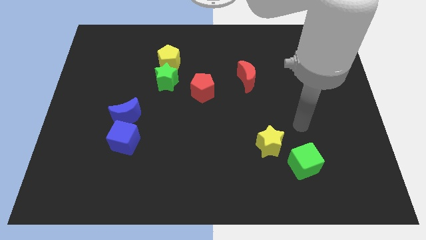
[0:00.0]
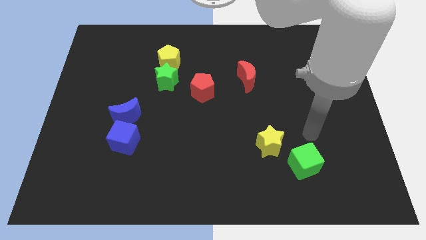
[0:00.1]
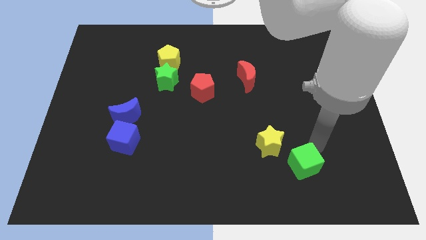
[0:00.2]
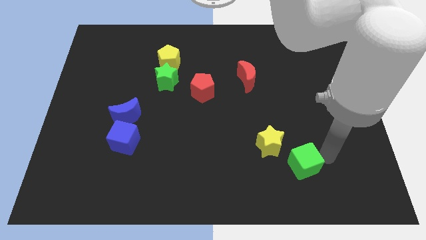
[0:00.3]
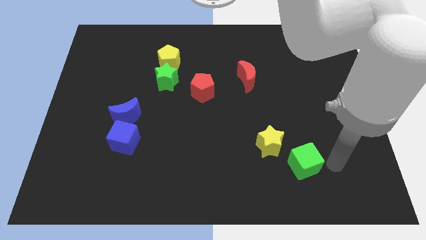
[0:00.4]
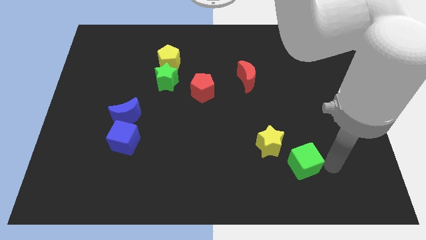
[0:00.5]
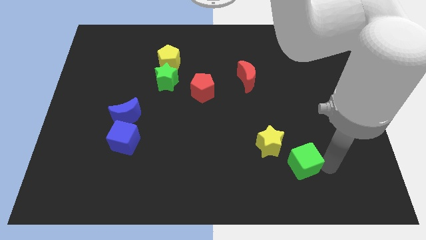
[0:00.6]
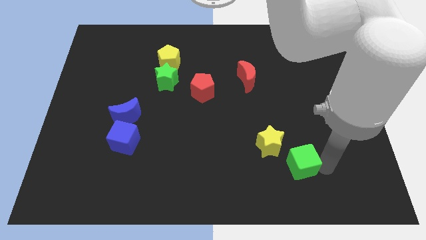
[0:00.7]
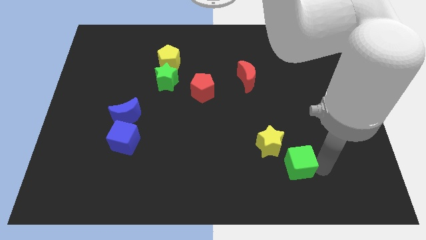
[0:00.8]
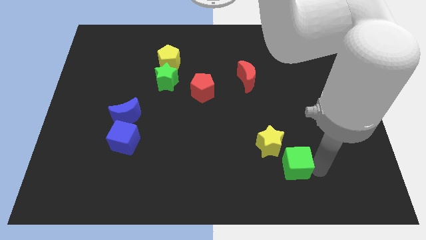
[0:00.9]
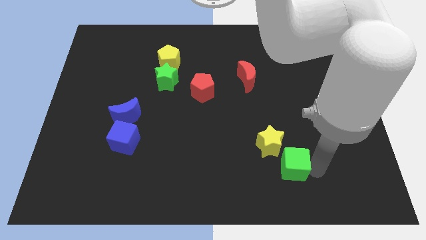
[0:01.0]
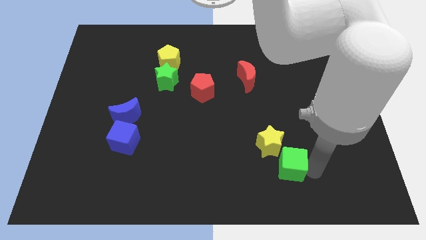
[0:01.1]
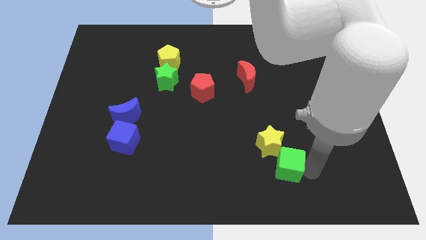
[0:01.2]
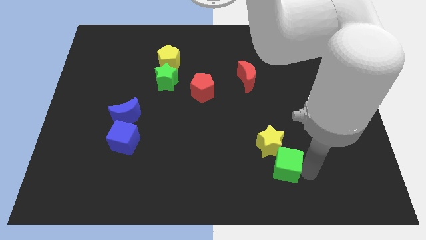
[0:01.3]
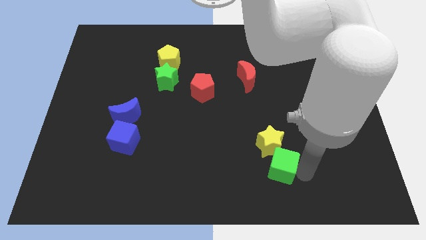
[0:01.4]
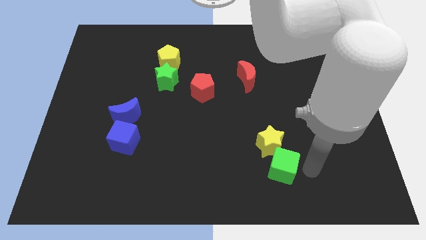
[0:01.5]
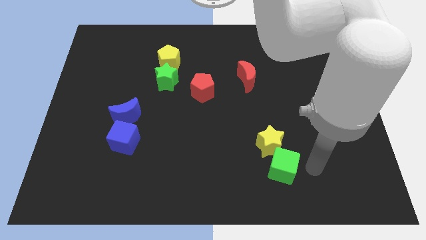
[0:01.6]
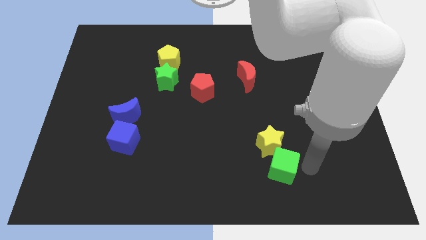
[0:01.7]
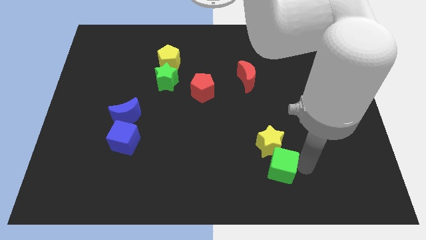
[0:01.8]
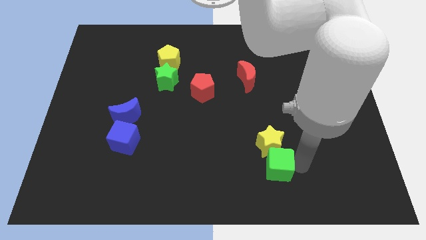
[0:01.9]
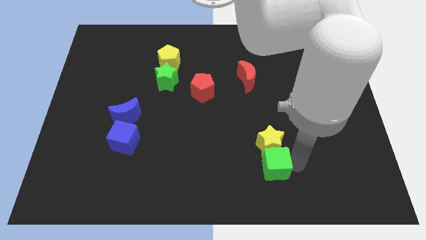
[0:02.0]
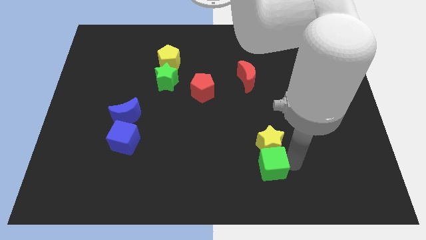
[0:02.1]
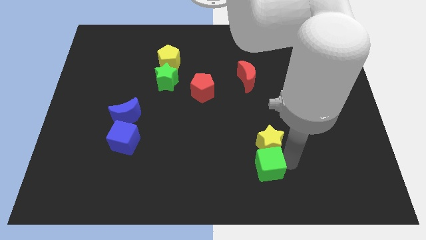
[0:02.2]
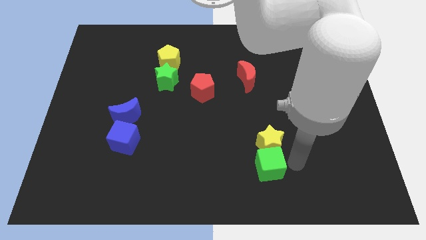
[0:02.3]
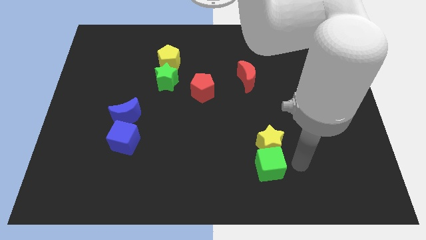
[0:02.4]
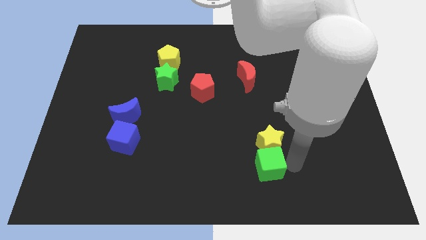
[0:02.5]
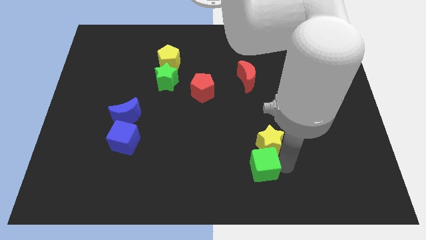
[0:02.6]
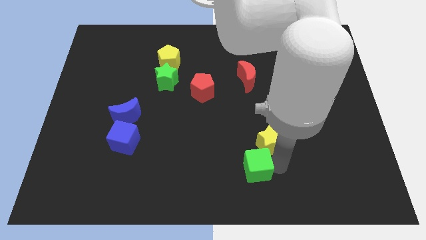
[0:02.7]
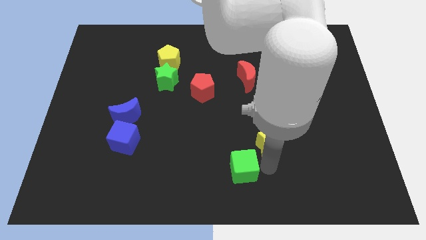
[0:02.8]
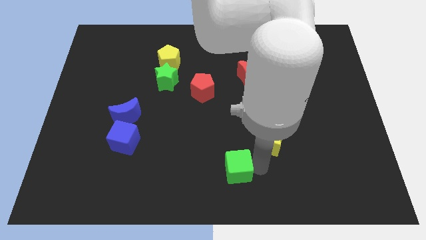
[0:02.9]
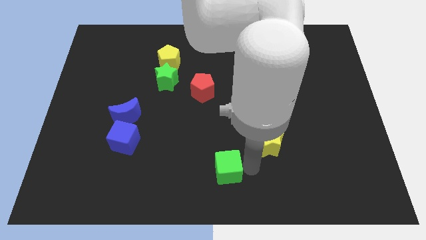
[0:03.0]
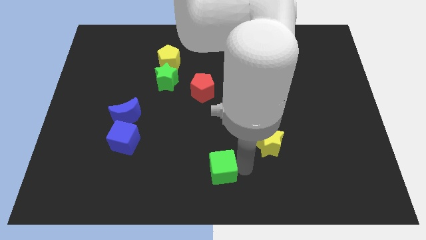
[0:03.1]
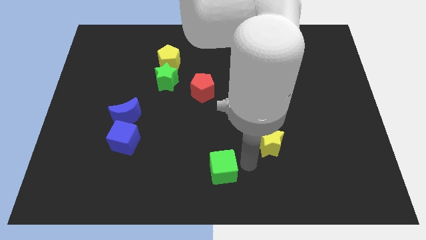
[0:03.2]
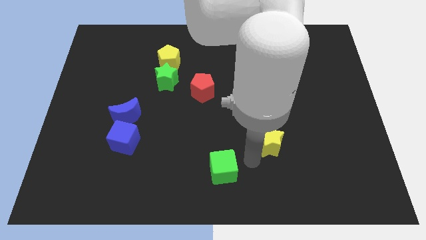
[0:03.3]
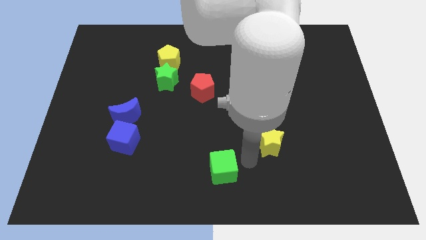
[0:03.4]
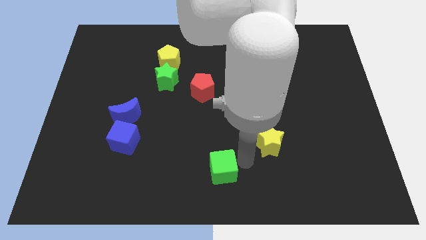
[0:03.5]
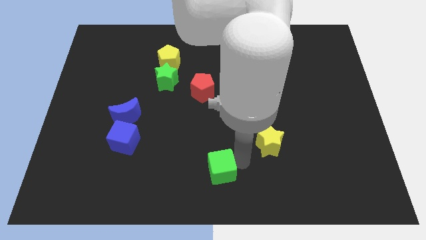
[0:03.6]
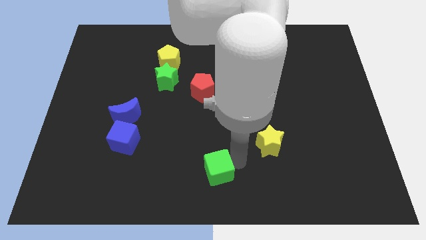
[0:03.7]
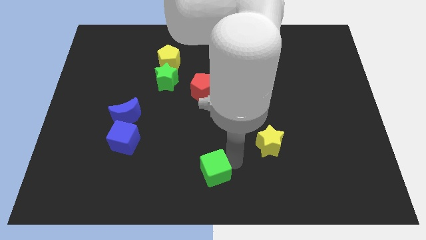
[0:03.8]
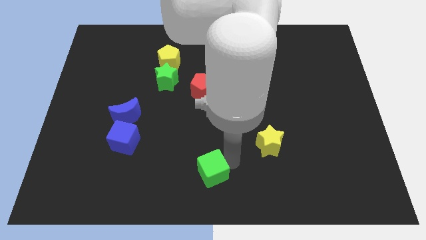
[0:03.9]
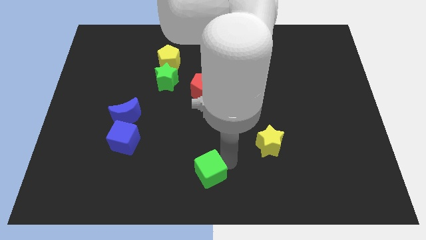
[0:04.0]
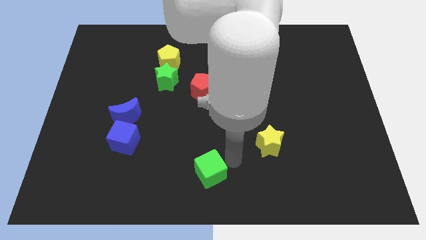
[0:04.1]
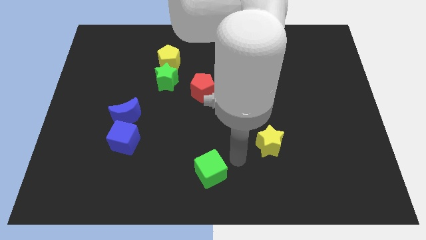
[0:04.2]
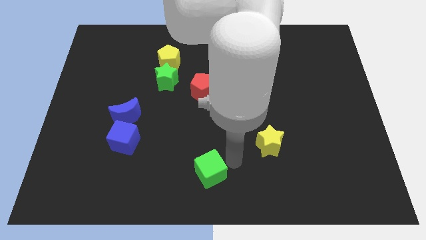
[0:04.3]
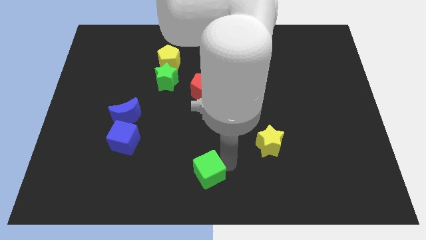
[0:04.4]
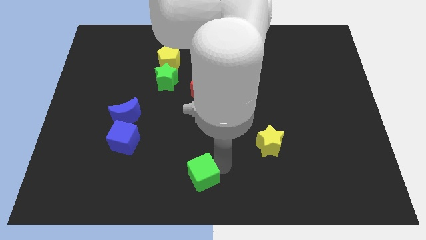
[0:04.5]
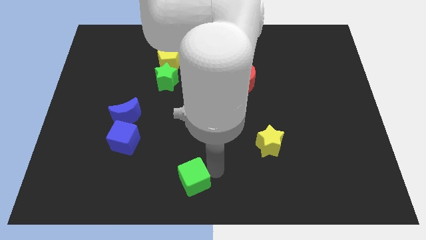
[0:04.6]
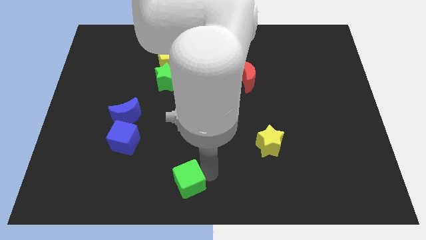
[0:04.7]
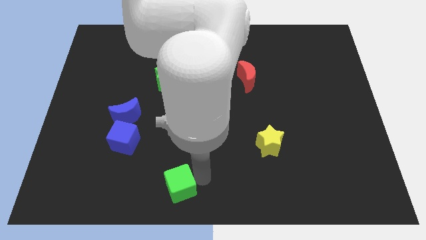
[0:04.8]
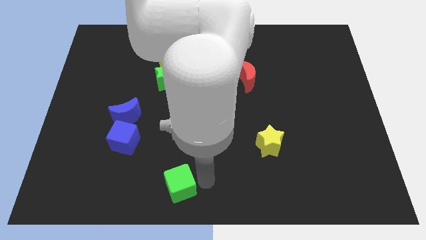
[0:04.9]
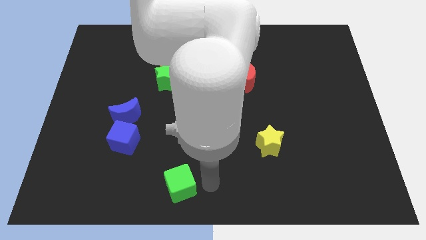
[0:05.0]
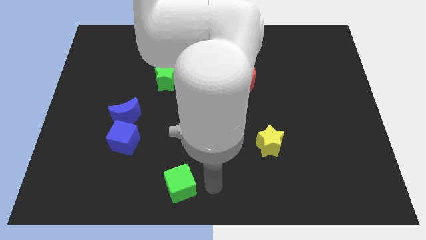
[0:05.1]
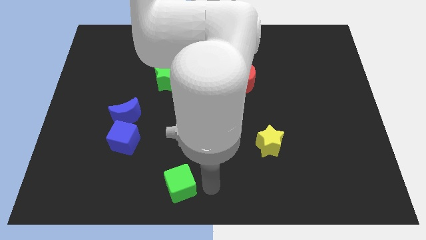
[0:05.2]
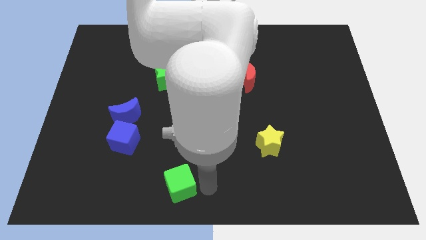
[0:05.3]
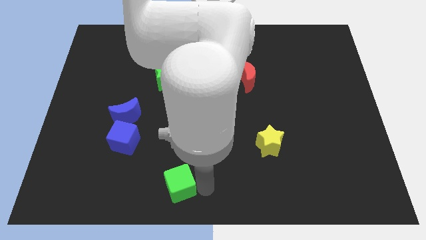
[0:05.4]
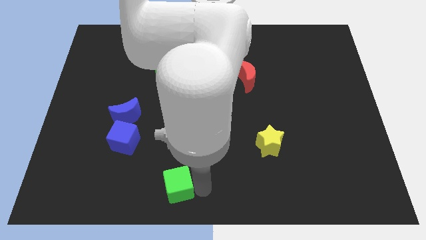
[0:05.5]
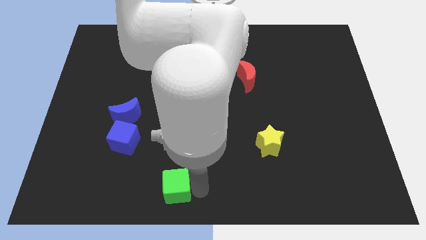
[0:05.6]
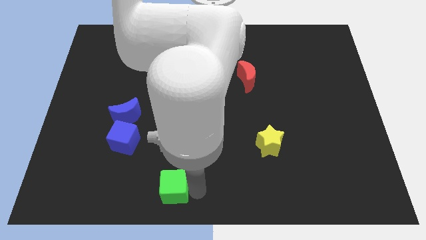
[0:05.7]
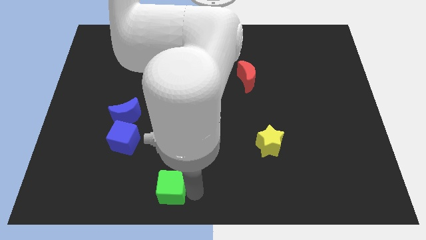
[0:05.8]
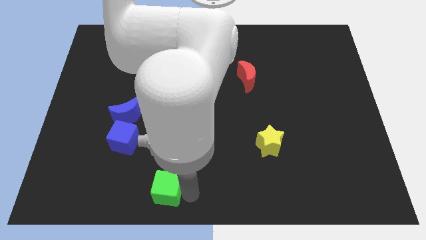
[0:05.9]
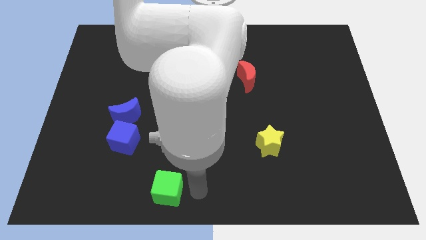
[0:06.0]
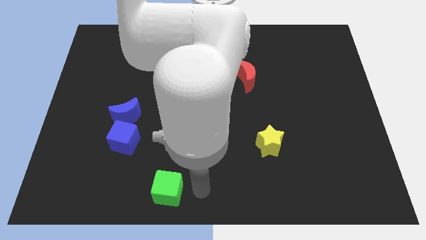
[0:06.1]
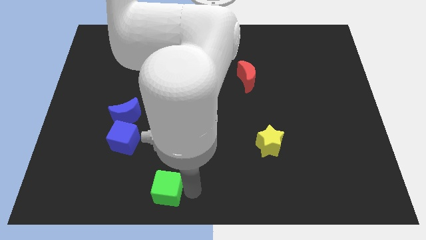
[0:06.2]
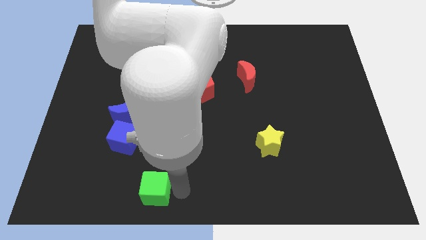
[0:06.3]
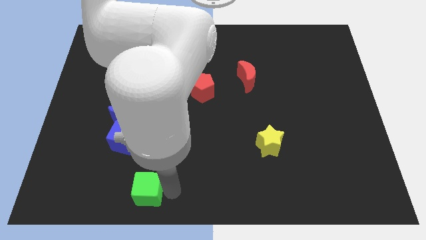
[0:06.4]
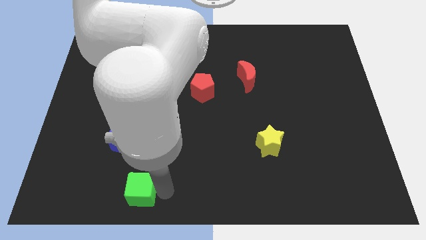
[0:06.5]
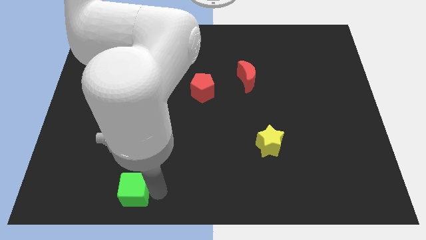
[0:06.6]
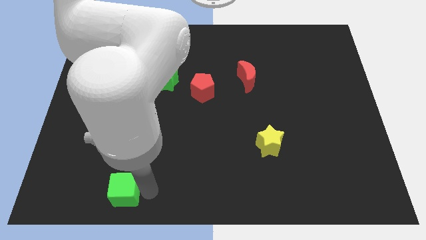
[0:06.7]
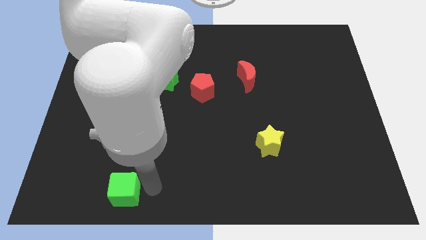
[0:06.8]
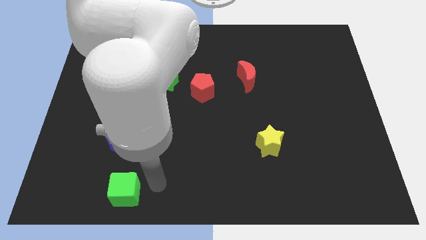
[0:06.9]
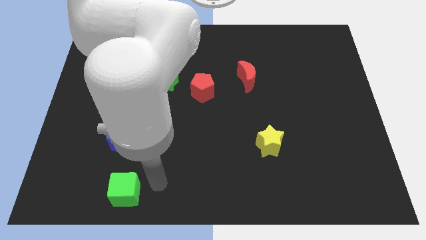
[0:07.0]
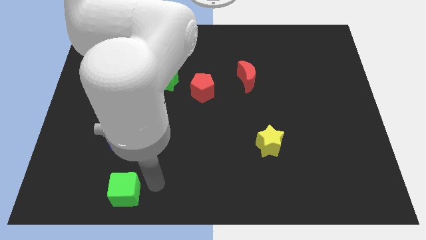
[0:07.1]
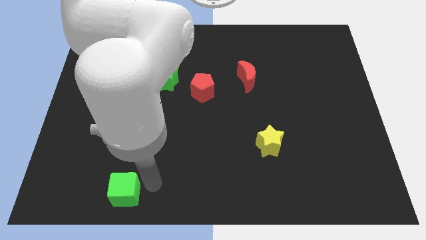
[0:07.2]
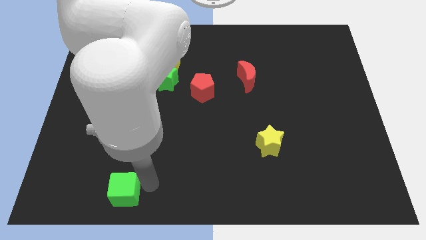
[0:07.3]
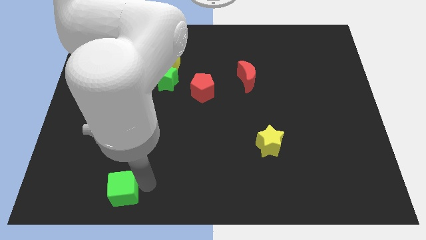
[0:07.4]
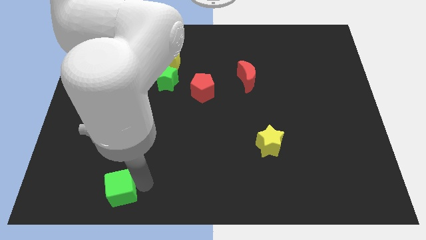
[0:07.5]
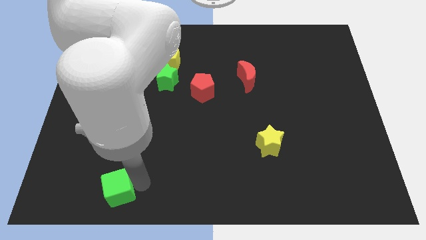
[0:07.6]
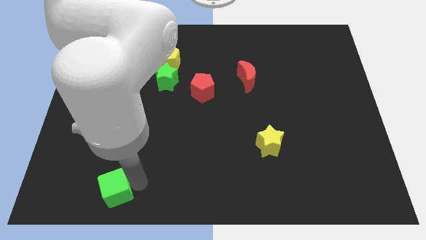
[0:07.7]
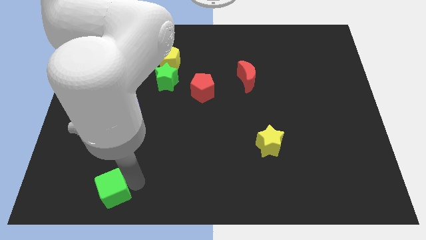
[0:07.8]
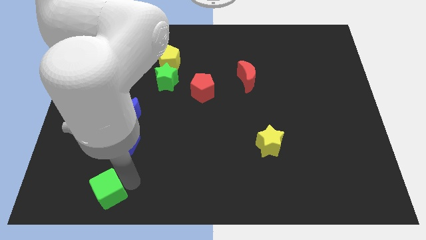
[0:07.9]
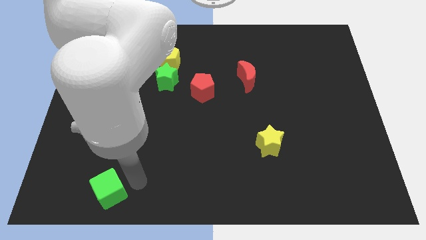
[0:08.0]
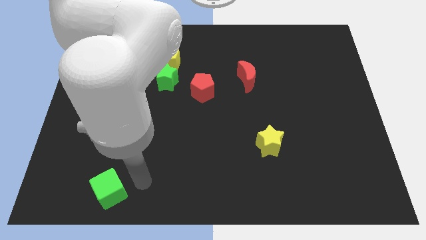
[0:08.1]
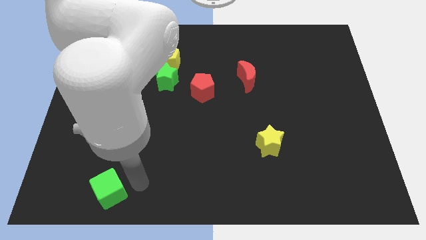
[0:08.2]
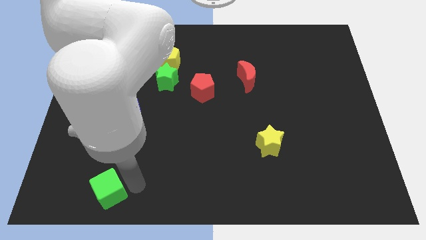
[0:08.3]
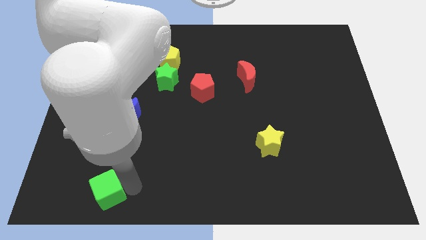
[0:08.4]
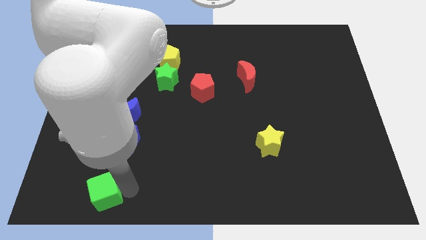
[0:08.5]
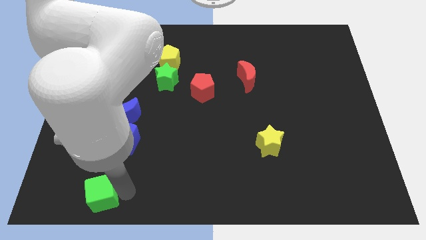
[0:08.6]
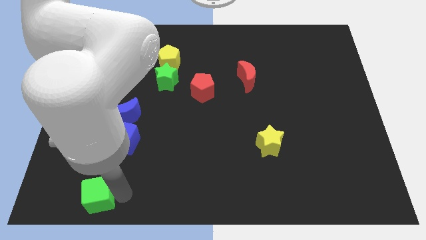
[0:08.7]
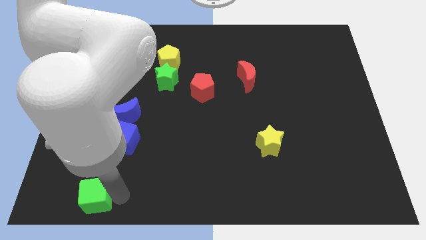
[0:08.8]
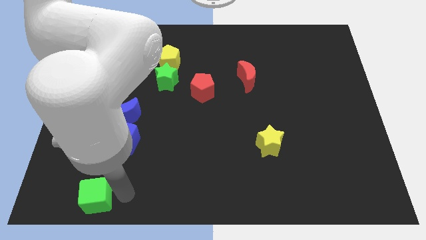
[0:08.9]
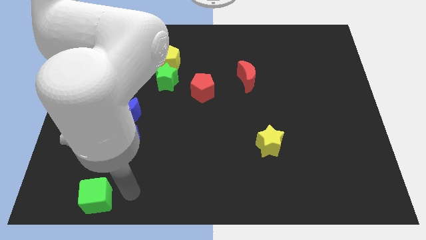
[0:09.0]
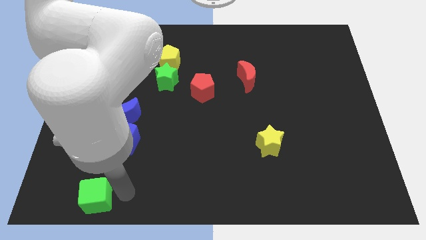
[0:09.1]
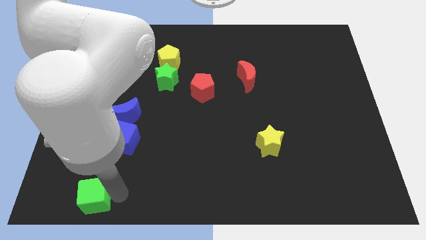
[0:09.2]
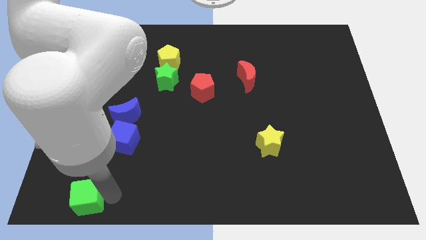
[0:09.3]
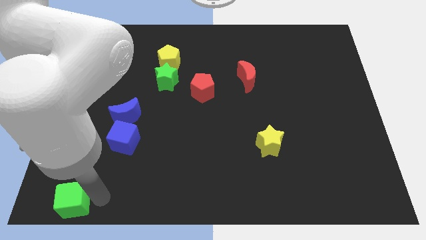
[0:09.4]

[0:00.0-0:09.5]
put the green cube to the lower left corner
